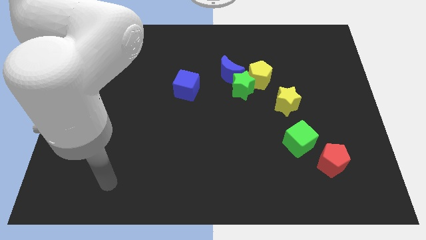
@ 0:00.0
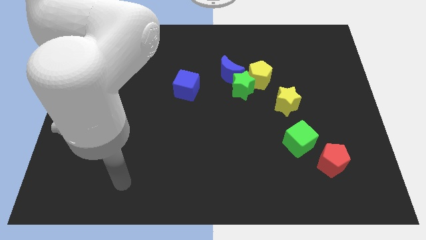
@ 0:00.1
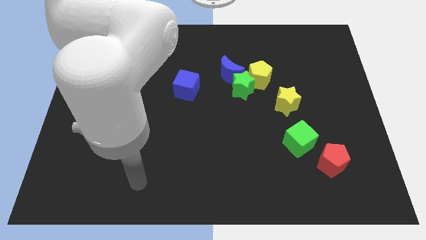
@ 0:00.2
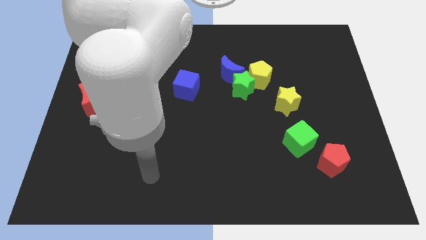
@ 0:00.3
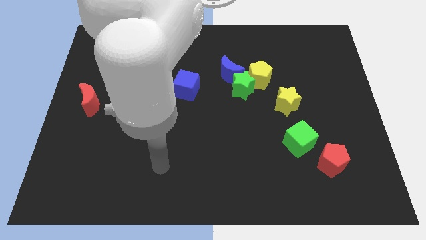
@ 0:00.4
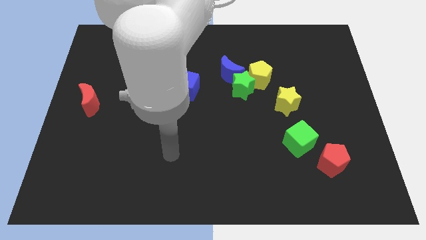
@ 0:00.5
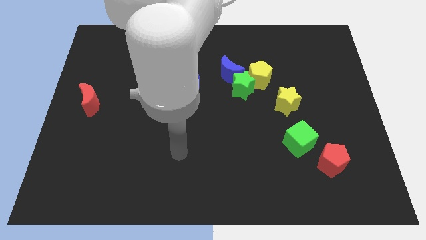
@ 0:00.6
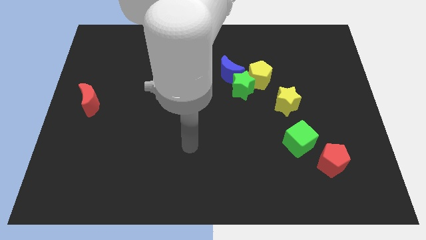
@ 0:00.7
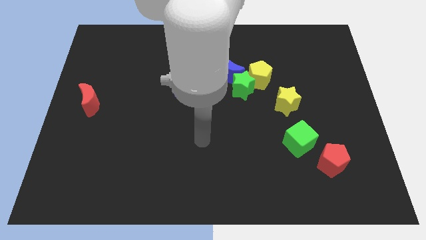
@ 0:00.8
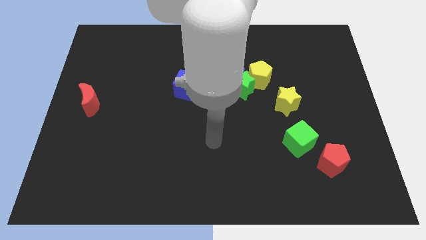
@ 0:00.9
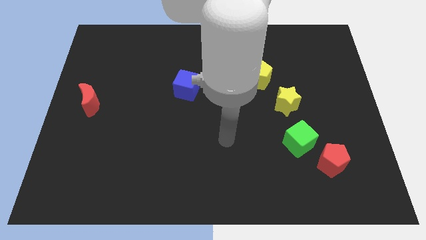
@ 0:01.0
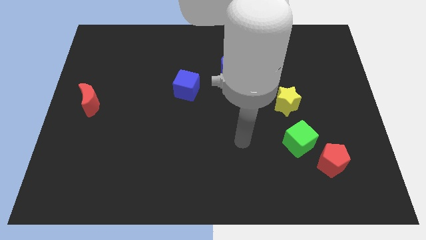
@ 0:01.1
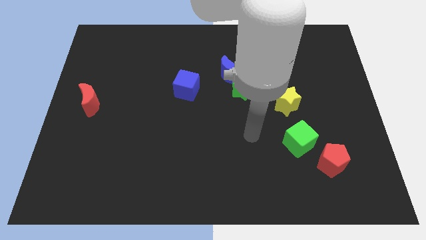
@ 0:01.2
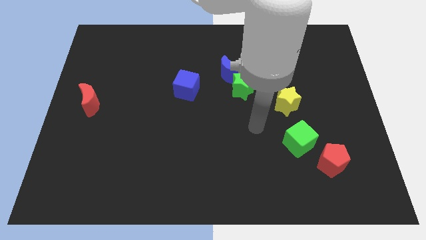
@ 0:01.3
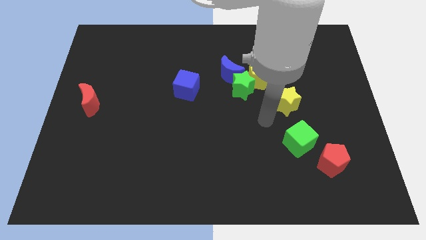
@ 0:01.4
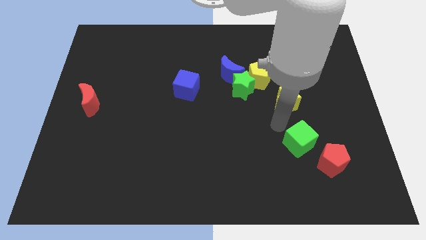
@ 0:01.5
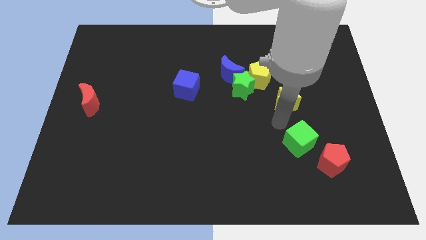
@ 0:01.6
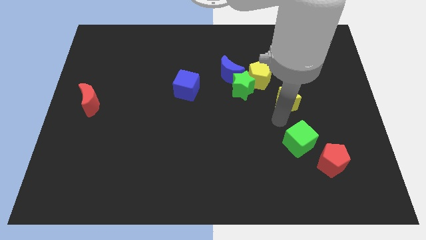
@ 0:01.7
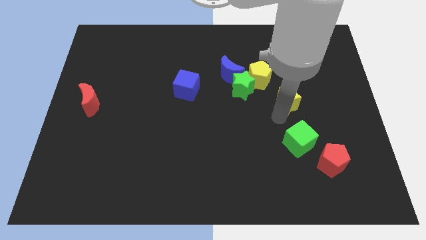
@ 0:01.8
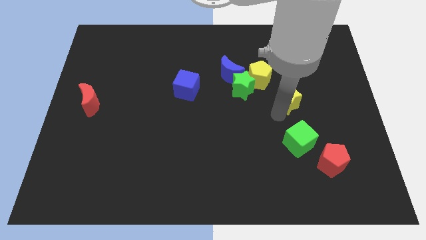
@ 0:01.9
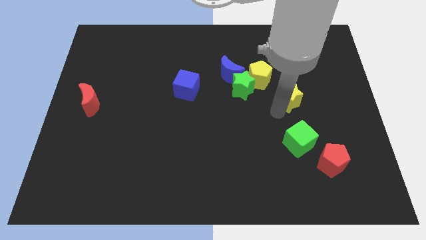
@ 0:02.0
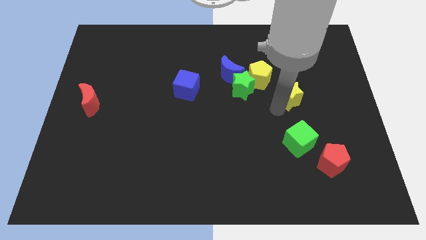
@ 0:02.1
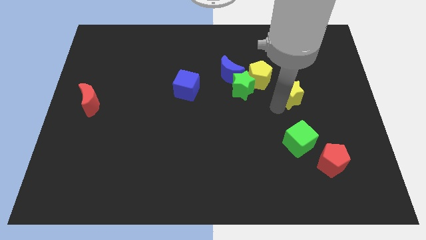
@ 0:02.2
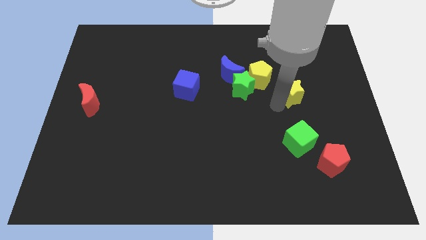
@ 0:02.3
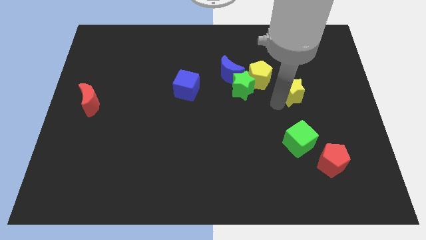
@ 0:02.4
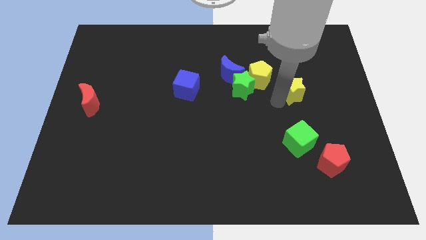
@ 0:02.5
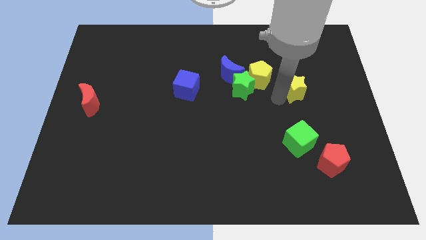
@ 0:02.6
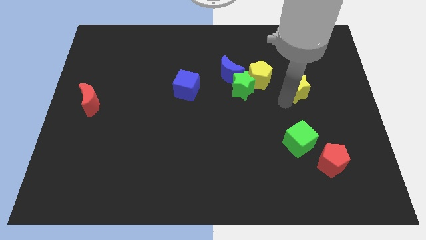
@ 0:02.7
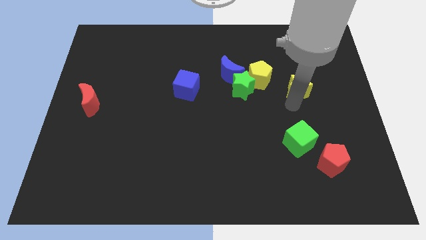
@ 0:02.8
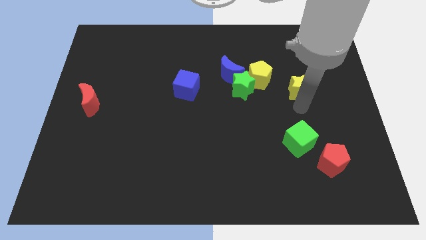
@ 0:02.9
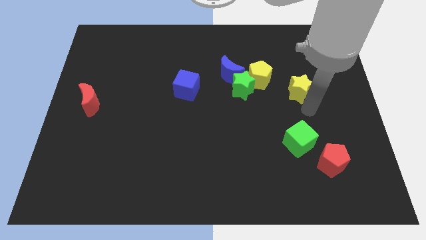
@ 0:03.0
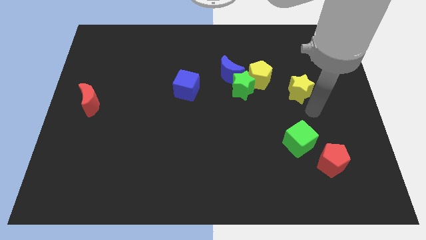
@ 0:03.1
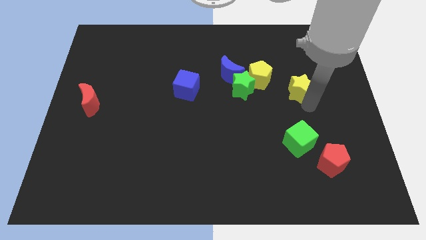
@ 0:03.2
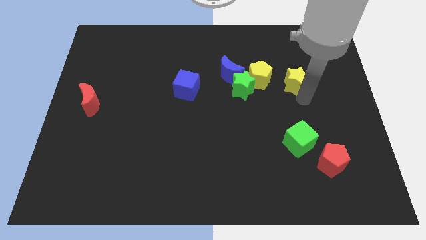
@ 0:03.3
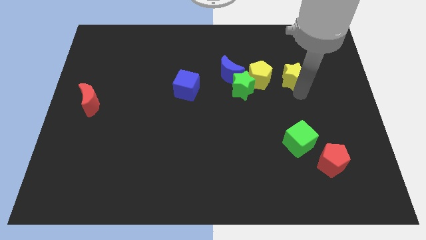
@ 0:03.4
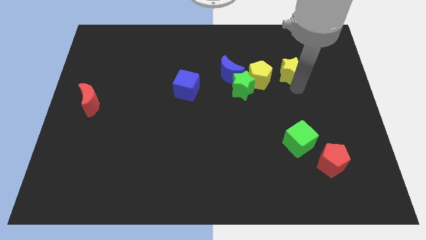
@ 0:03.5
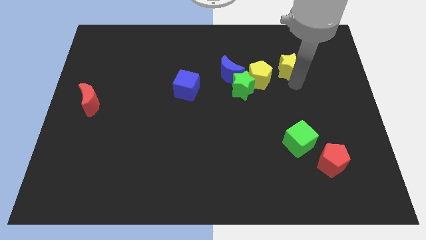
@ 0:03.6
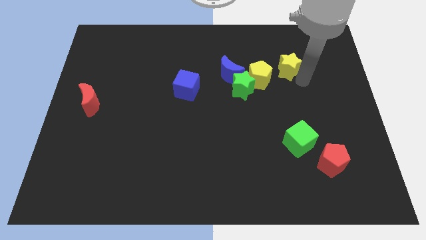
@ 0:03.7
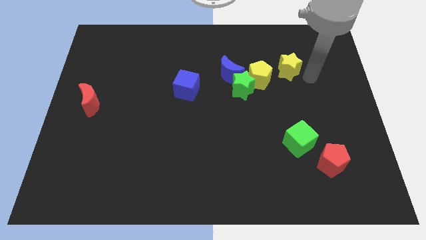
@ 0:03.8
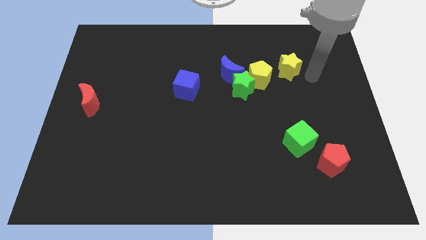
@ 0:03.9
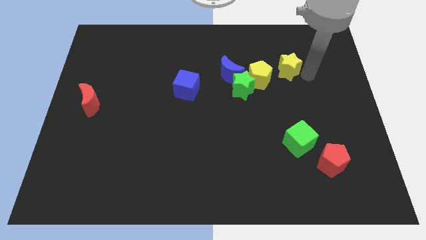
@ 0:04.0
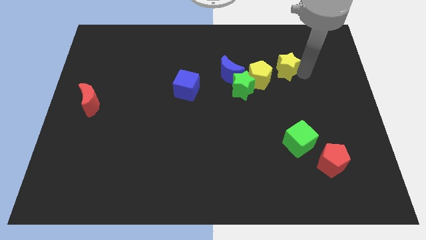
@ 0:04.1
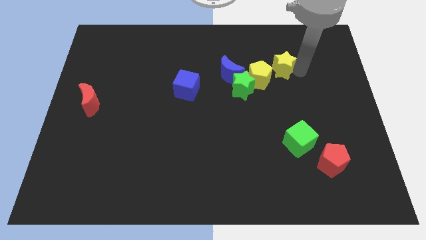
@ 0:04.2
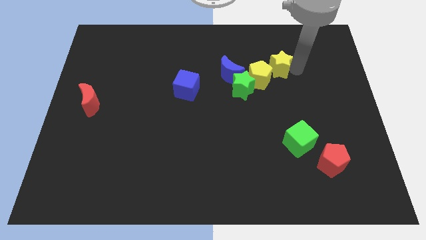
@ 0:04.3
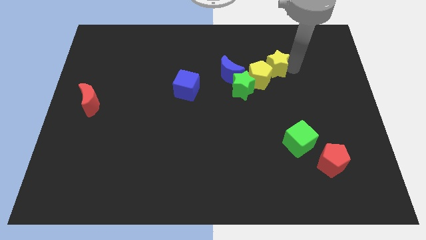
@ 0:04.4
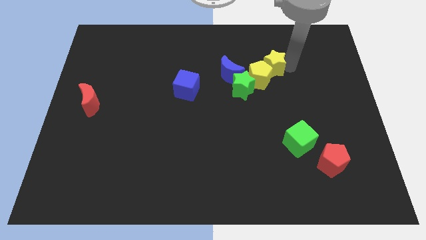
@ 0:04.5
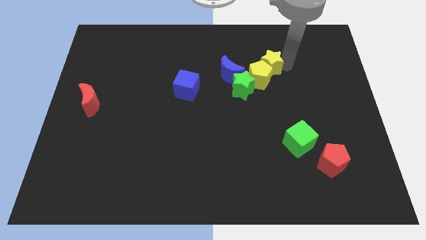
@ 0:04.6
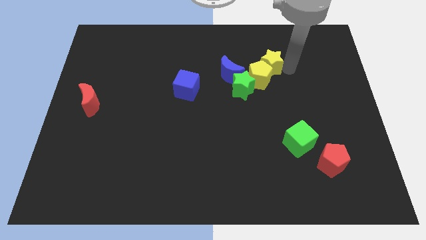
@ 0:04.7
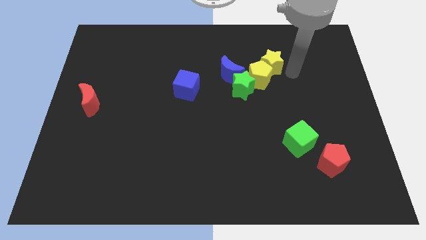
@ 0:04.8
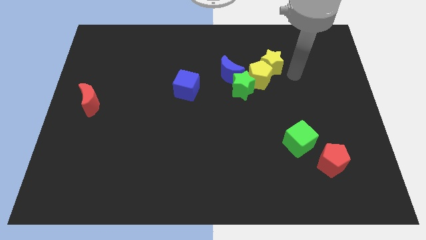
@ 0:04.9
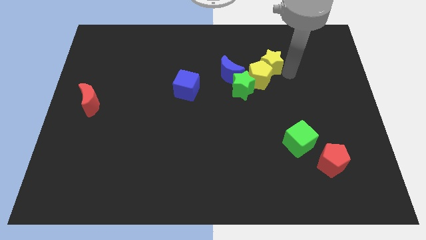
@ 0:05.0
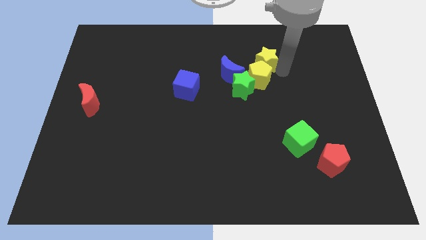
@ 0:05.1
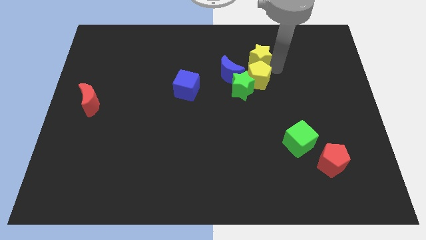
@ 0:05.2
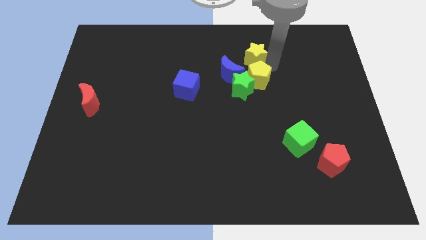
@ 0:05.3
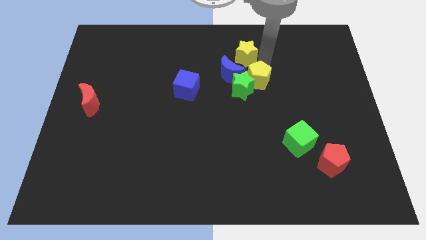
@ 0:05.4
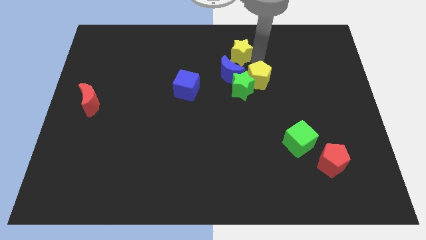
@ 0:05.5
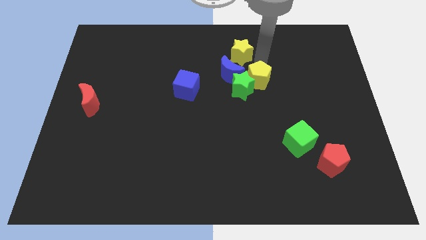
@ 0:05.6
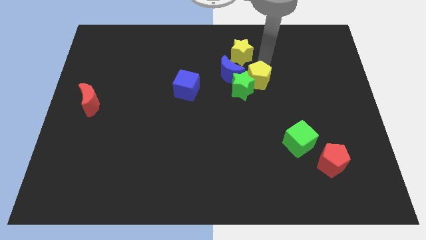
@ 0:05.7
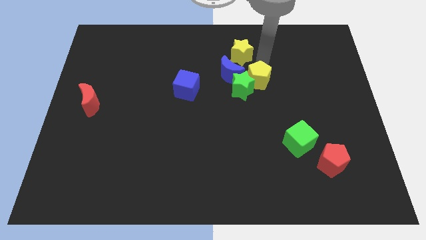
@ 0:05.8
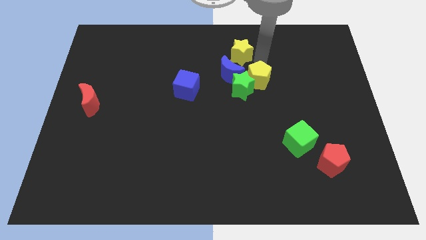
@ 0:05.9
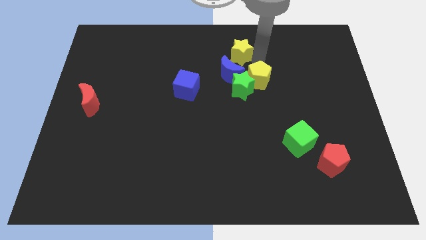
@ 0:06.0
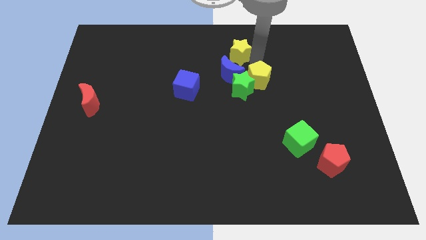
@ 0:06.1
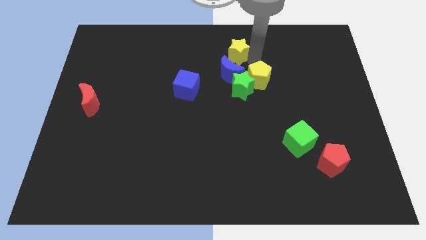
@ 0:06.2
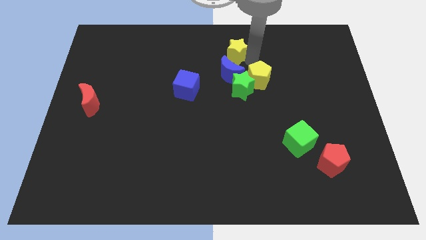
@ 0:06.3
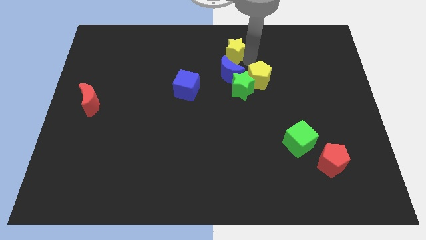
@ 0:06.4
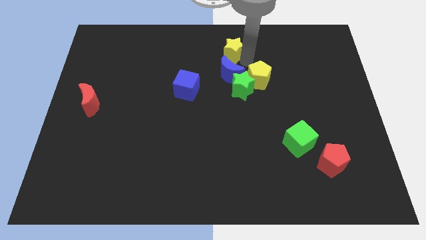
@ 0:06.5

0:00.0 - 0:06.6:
put the yellow star to the top side

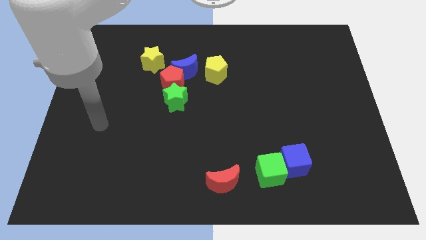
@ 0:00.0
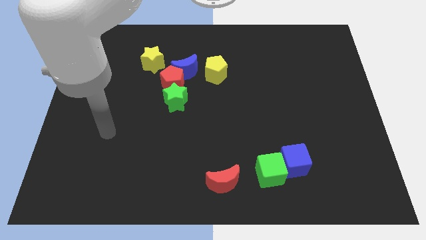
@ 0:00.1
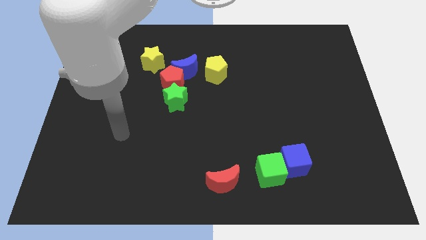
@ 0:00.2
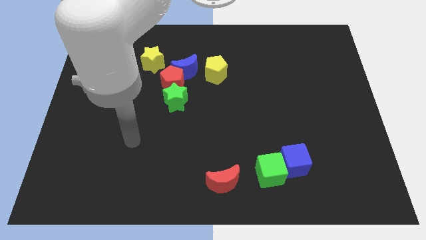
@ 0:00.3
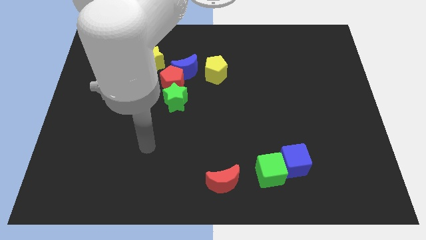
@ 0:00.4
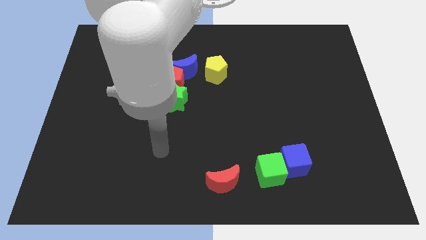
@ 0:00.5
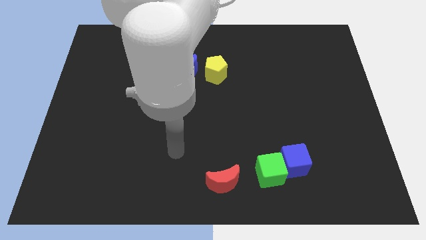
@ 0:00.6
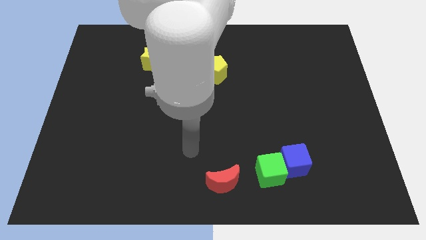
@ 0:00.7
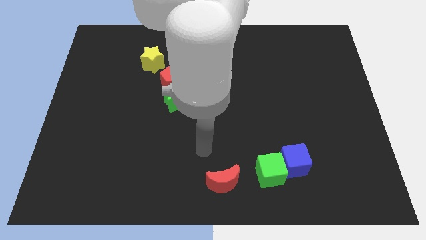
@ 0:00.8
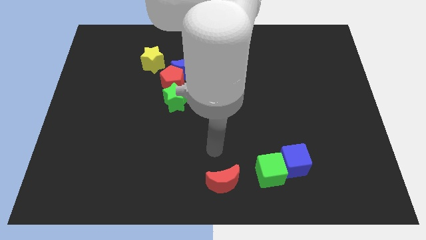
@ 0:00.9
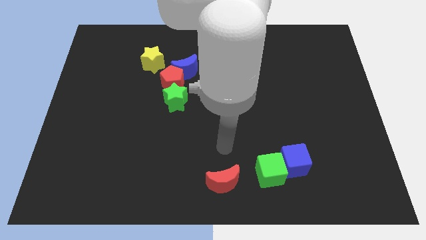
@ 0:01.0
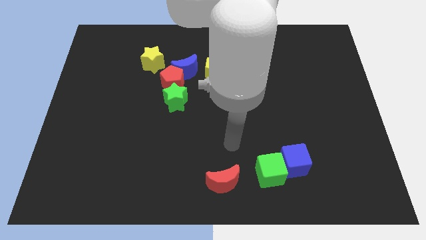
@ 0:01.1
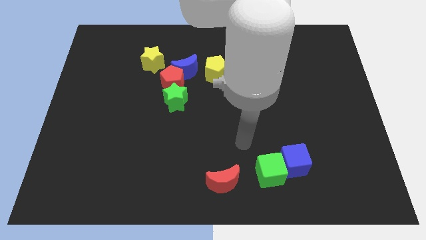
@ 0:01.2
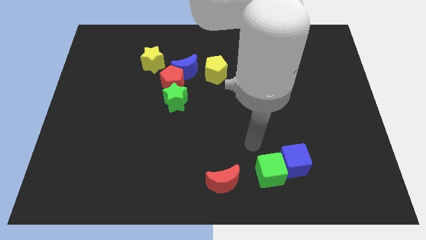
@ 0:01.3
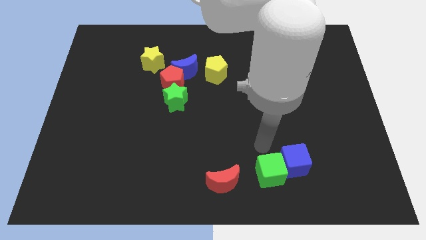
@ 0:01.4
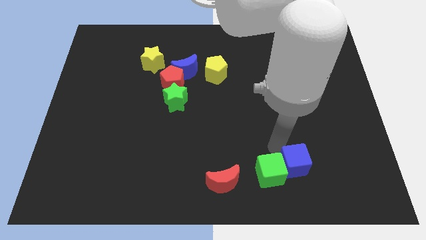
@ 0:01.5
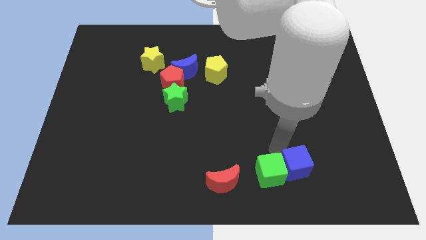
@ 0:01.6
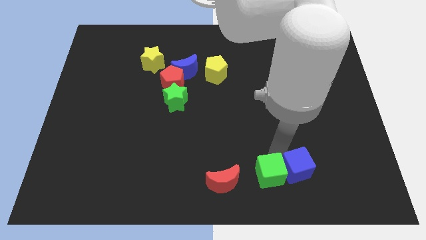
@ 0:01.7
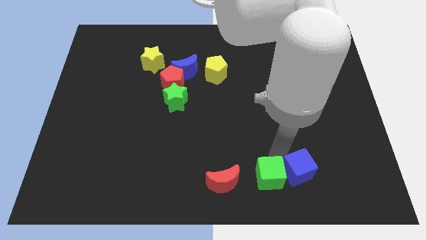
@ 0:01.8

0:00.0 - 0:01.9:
put the green cube to the bottom
